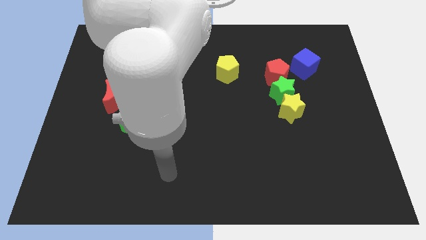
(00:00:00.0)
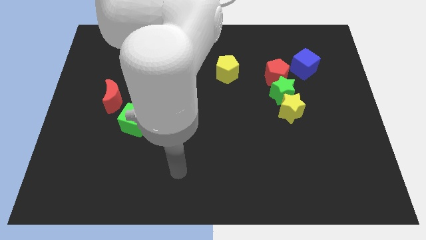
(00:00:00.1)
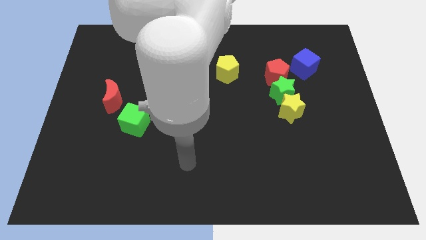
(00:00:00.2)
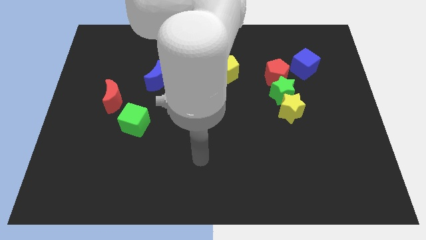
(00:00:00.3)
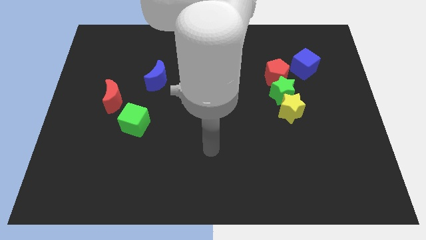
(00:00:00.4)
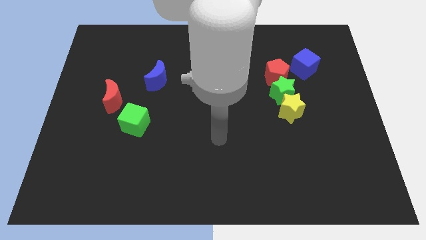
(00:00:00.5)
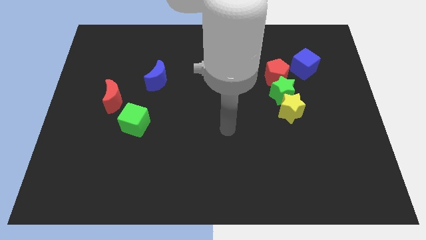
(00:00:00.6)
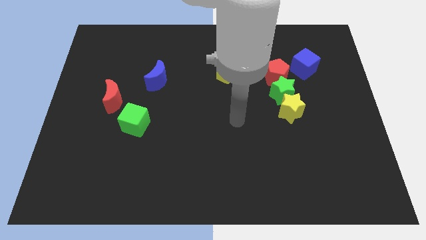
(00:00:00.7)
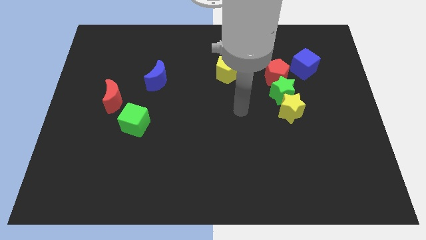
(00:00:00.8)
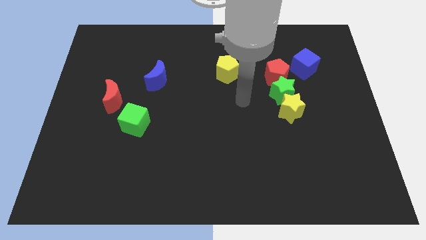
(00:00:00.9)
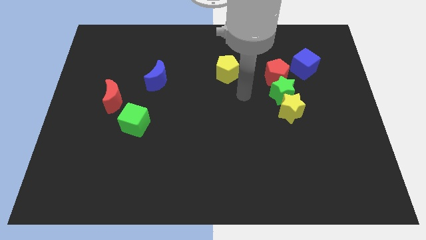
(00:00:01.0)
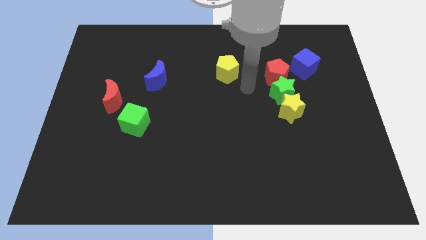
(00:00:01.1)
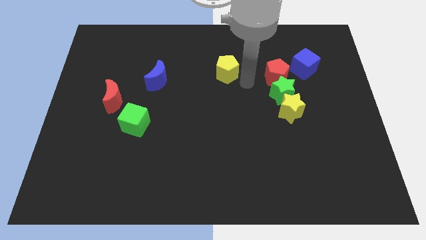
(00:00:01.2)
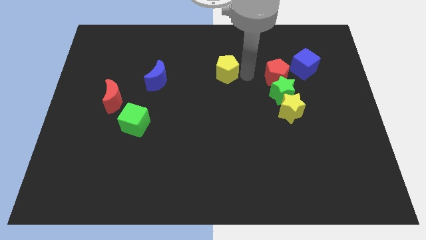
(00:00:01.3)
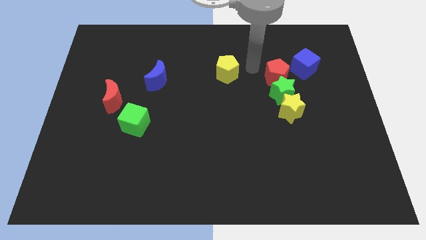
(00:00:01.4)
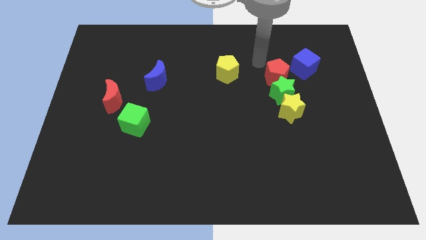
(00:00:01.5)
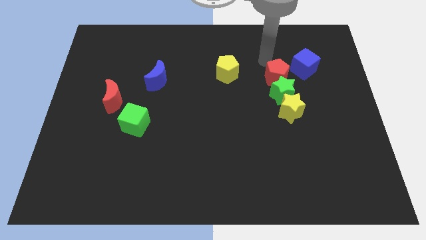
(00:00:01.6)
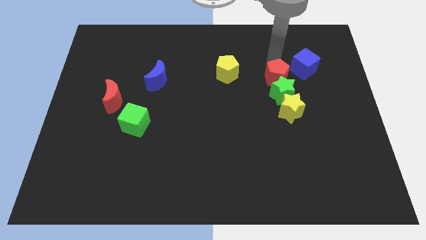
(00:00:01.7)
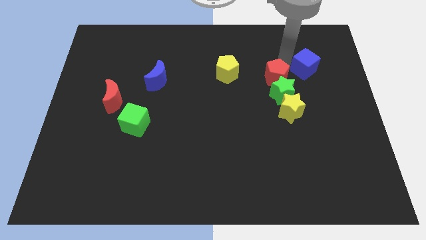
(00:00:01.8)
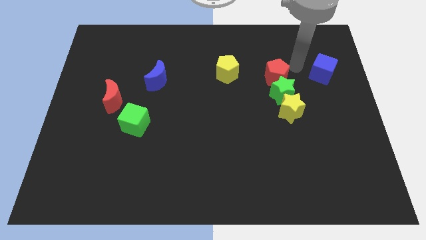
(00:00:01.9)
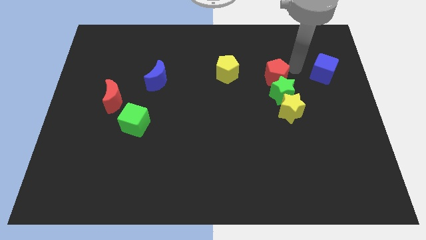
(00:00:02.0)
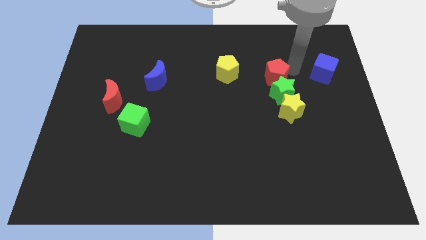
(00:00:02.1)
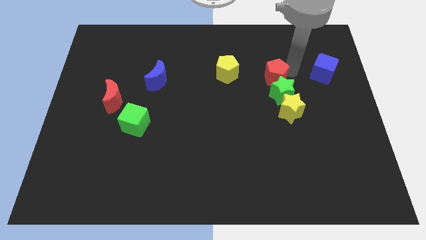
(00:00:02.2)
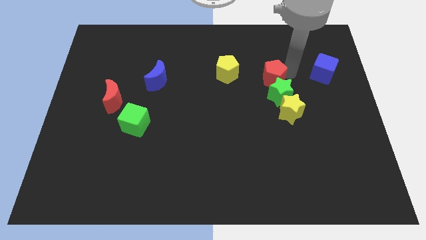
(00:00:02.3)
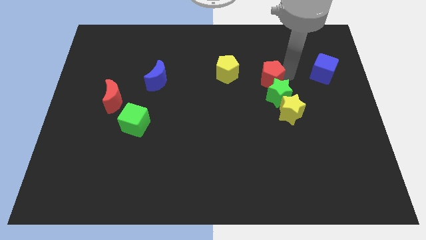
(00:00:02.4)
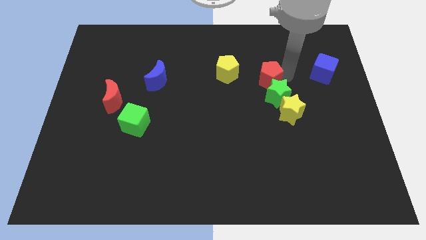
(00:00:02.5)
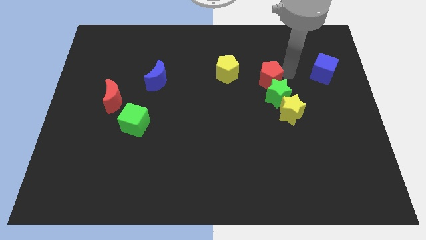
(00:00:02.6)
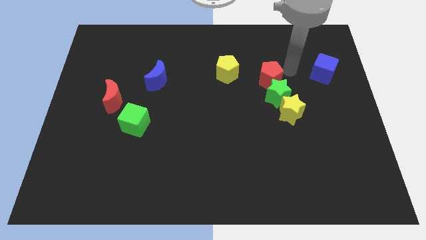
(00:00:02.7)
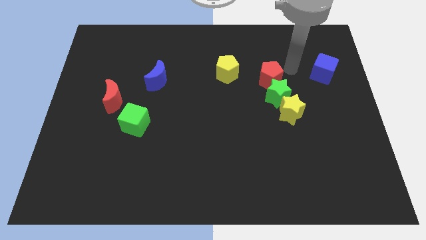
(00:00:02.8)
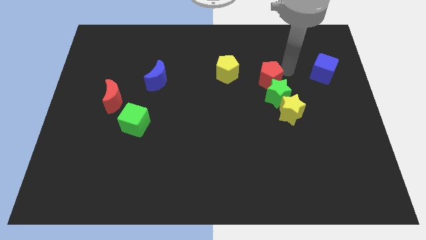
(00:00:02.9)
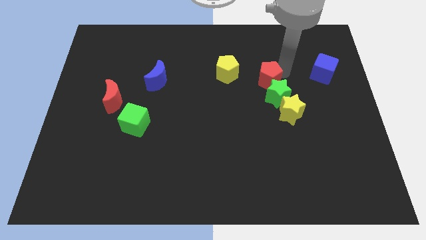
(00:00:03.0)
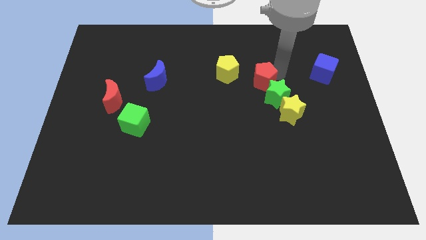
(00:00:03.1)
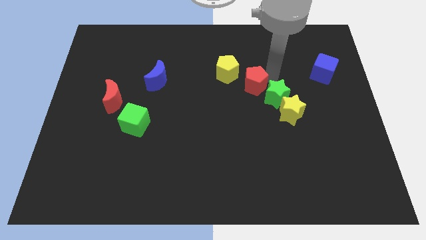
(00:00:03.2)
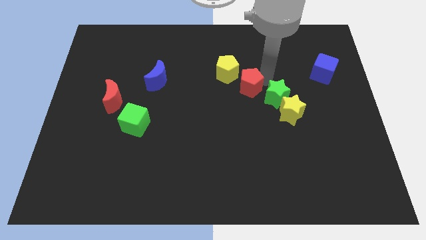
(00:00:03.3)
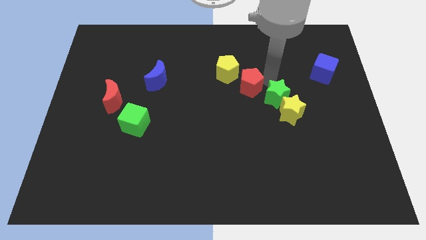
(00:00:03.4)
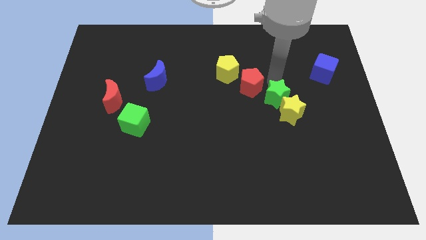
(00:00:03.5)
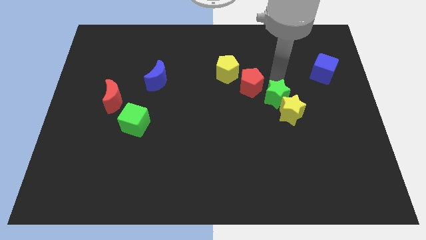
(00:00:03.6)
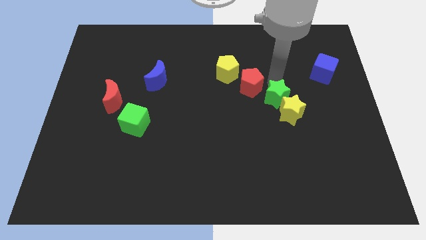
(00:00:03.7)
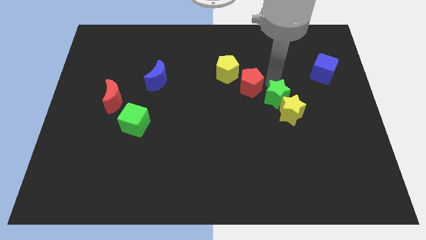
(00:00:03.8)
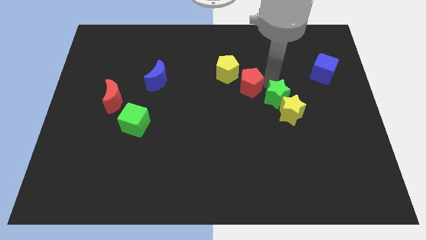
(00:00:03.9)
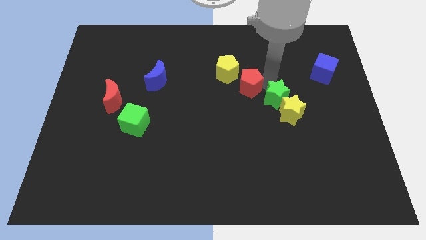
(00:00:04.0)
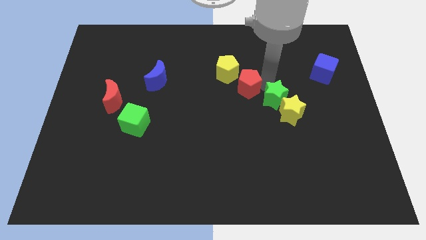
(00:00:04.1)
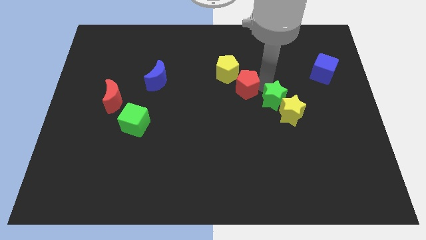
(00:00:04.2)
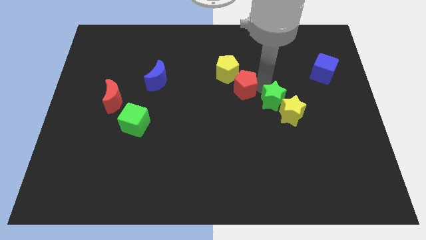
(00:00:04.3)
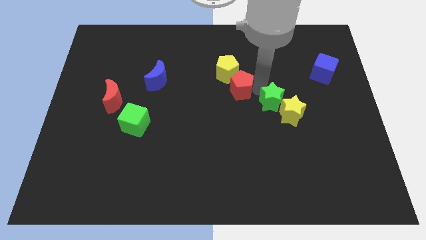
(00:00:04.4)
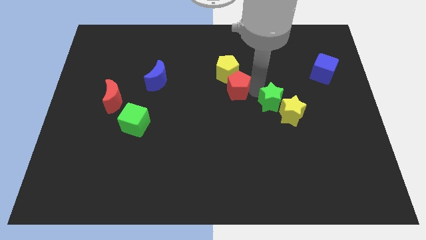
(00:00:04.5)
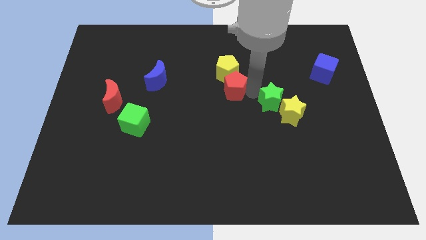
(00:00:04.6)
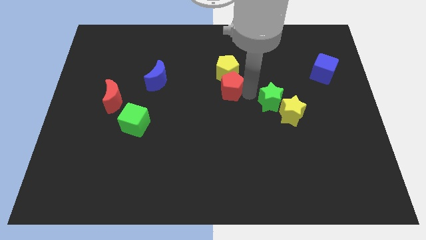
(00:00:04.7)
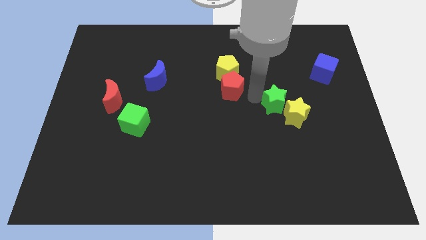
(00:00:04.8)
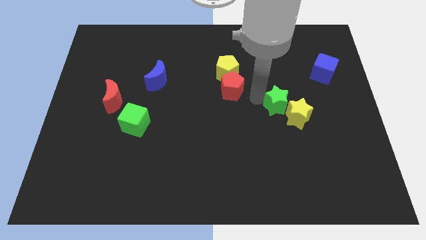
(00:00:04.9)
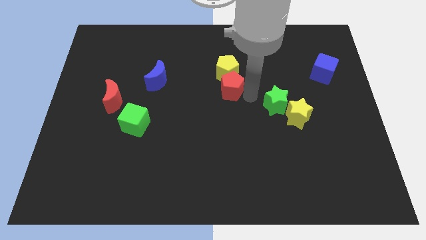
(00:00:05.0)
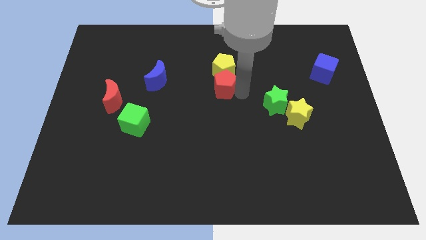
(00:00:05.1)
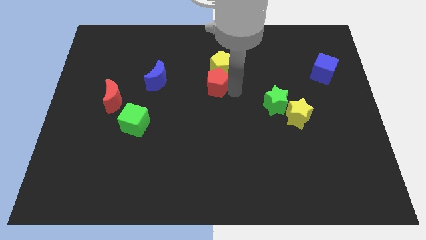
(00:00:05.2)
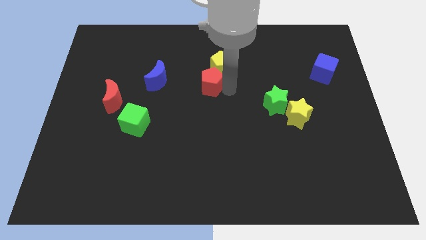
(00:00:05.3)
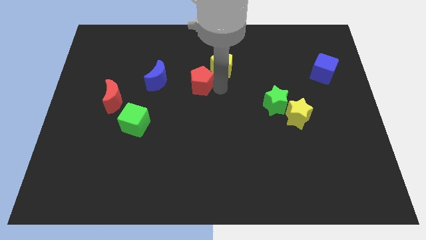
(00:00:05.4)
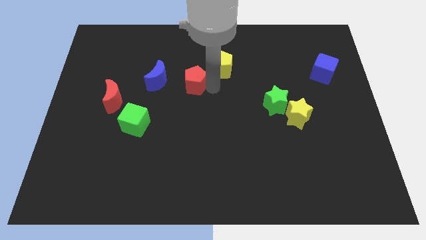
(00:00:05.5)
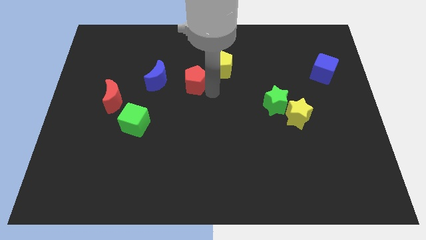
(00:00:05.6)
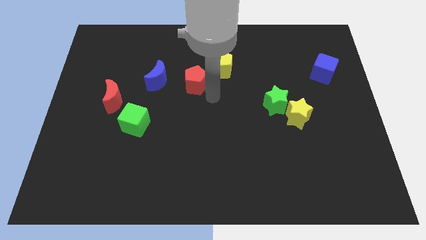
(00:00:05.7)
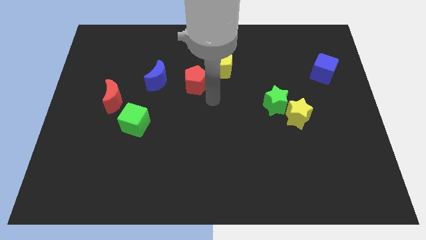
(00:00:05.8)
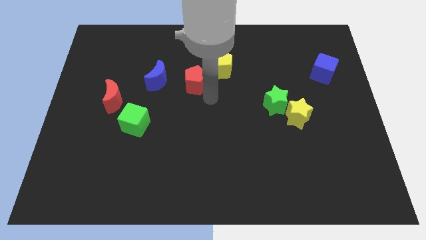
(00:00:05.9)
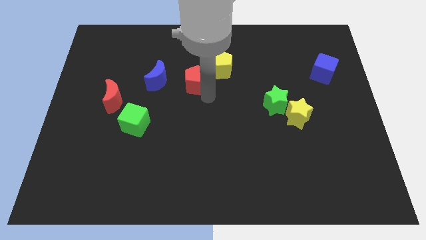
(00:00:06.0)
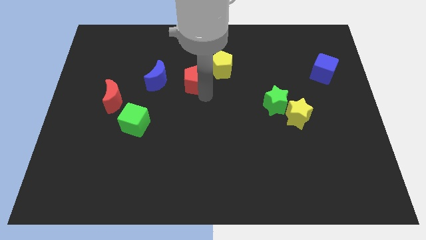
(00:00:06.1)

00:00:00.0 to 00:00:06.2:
slide the red pentagon just left of the yellow pentagon

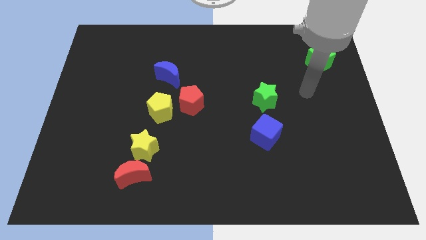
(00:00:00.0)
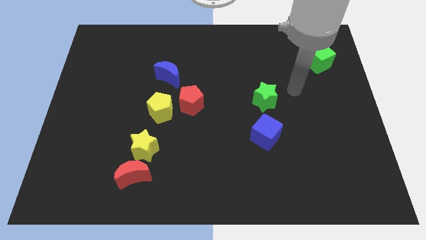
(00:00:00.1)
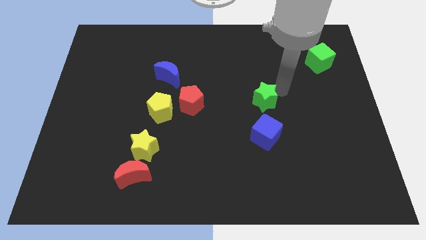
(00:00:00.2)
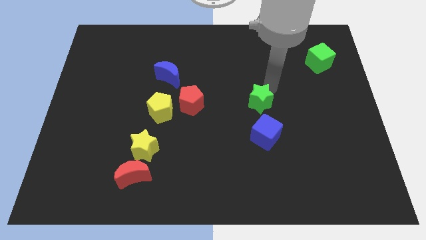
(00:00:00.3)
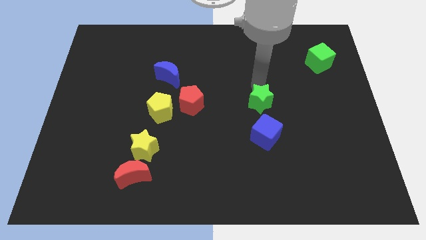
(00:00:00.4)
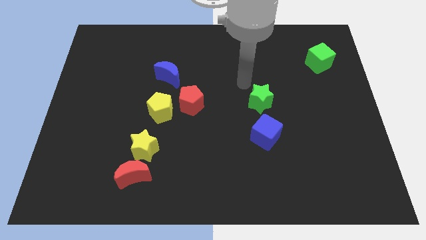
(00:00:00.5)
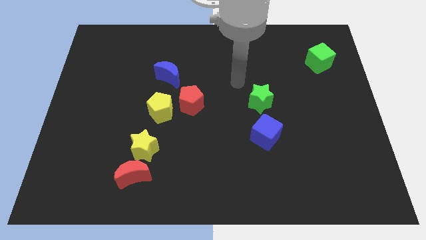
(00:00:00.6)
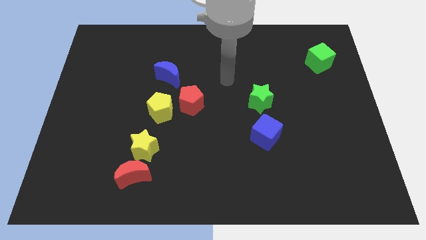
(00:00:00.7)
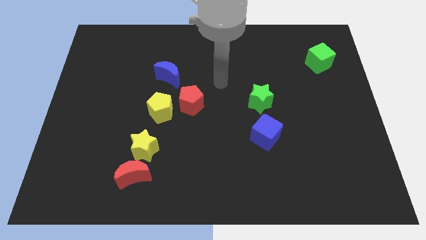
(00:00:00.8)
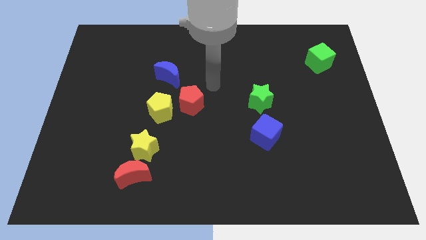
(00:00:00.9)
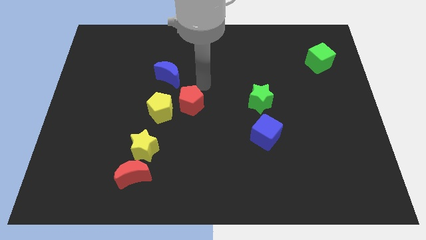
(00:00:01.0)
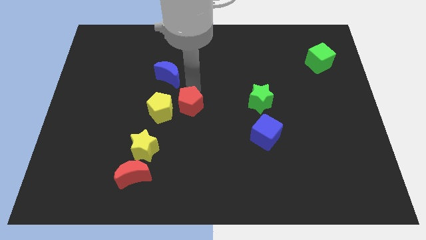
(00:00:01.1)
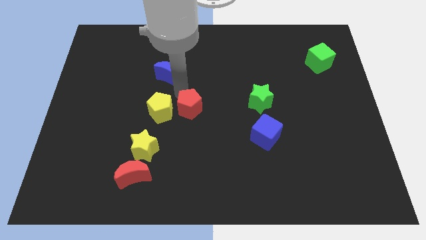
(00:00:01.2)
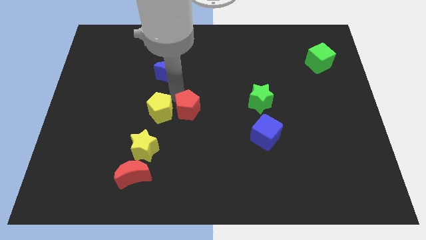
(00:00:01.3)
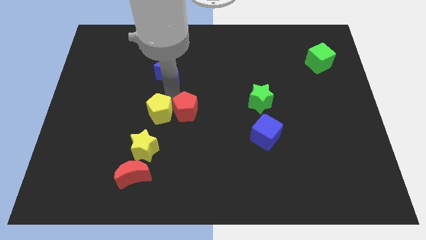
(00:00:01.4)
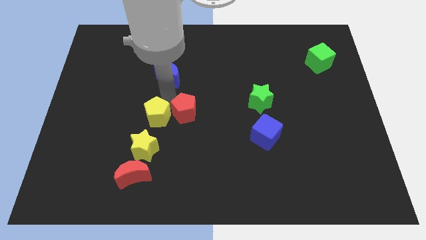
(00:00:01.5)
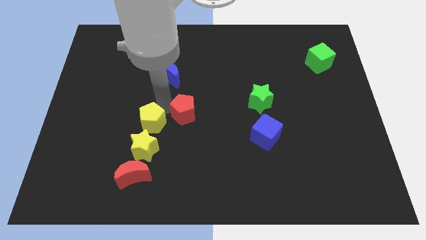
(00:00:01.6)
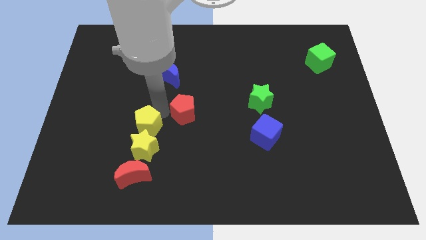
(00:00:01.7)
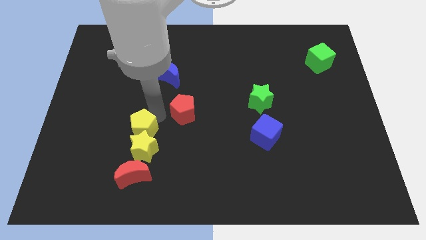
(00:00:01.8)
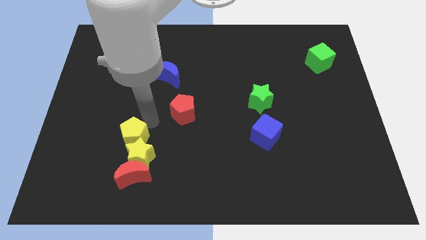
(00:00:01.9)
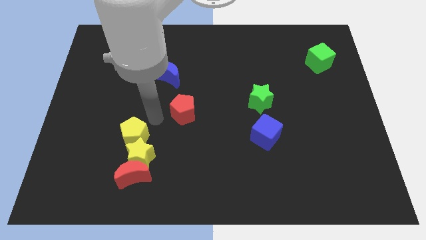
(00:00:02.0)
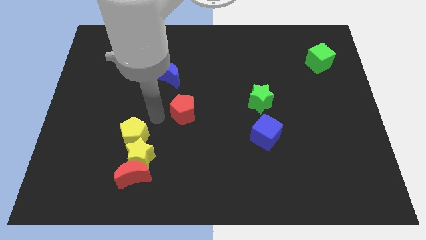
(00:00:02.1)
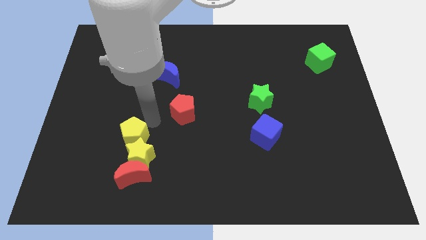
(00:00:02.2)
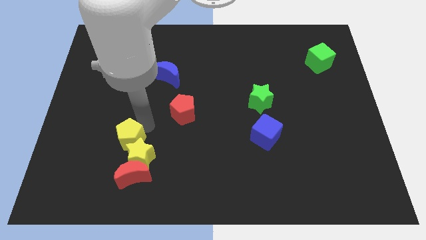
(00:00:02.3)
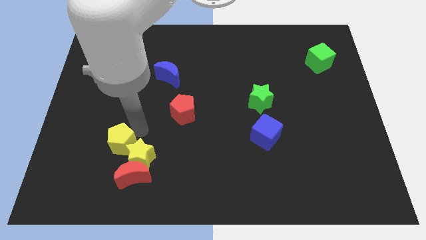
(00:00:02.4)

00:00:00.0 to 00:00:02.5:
move the yellow pentagon diagonally up and to the left of the red moon
